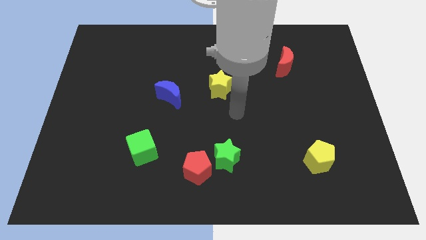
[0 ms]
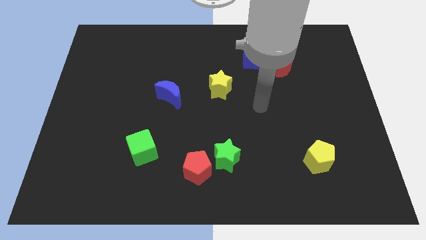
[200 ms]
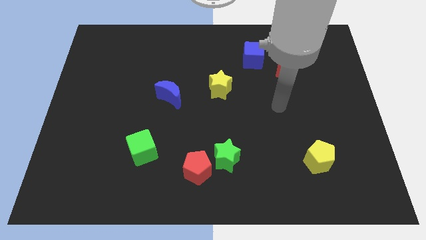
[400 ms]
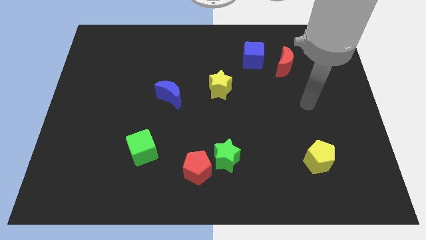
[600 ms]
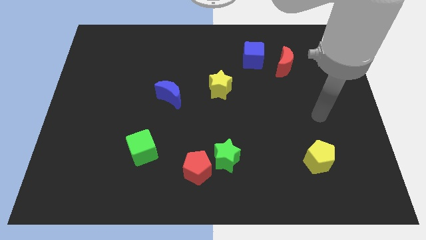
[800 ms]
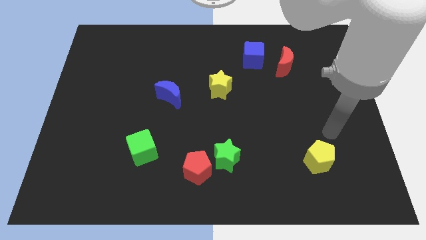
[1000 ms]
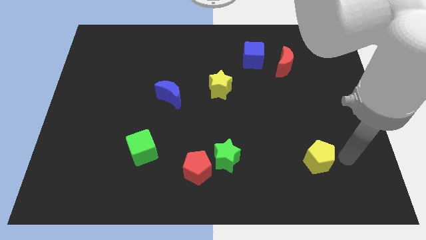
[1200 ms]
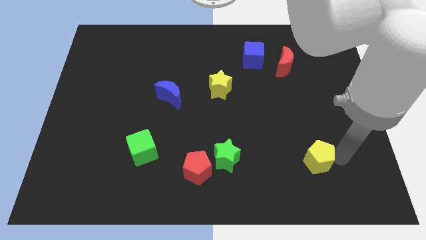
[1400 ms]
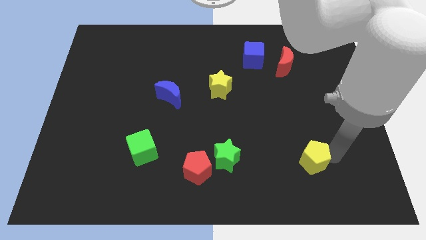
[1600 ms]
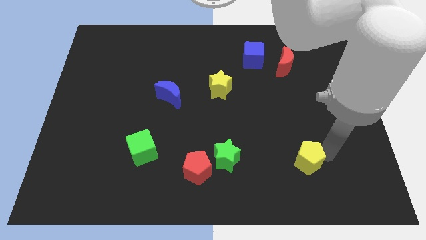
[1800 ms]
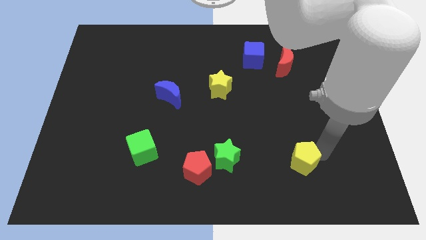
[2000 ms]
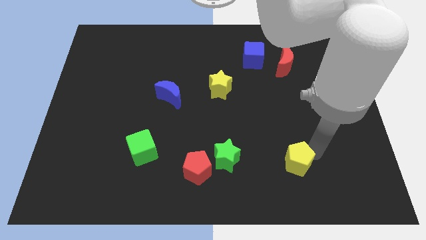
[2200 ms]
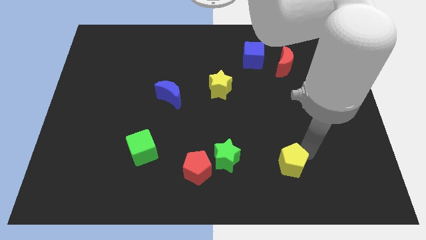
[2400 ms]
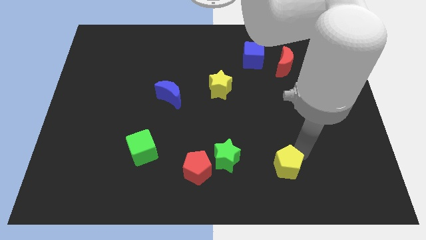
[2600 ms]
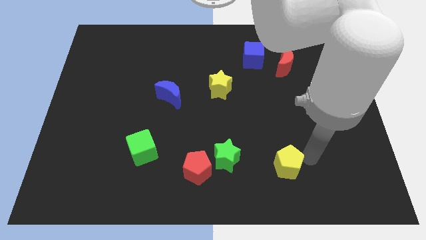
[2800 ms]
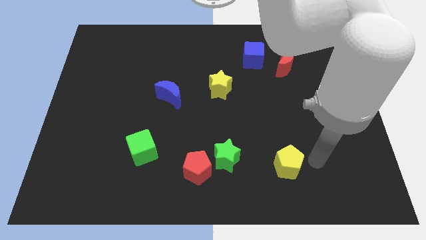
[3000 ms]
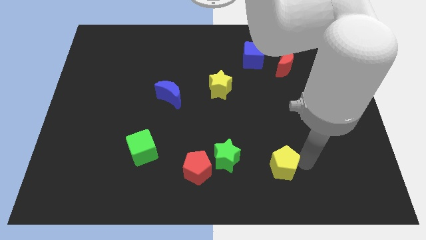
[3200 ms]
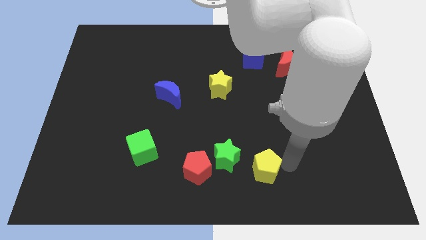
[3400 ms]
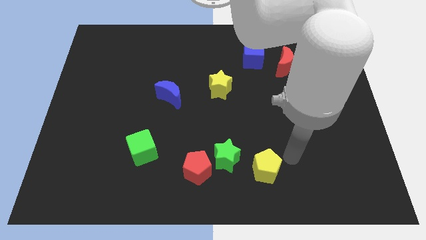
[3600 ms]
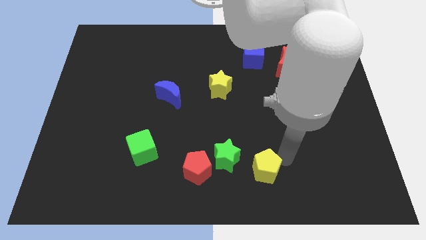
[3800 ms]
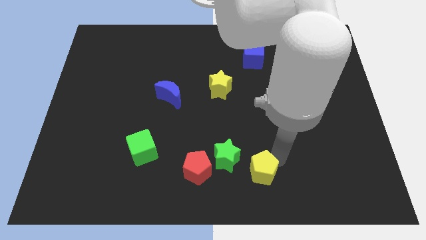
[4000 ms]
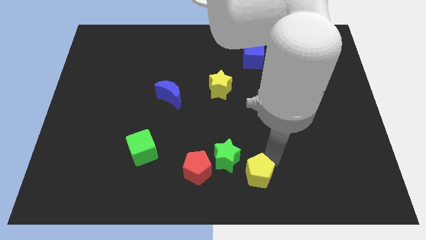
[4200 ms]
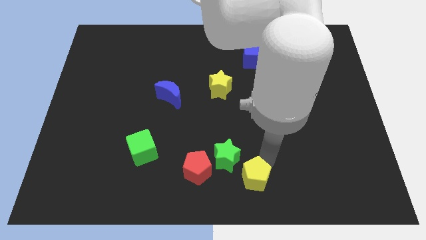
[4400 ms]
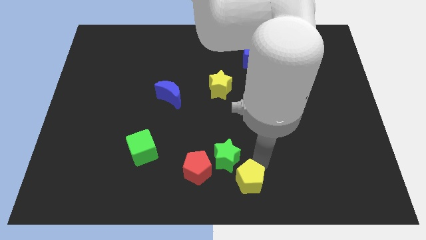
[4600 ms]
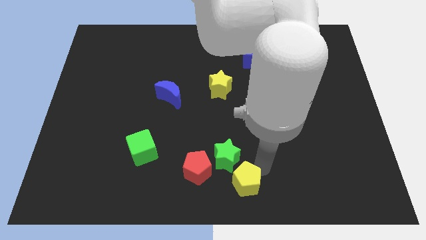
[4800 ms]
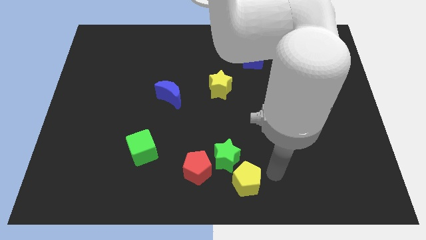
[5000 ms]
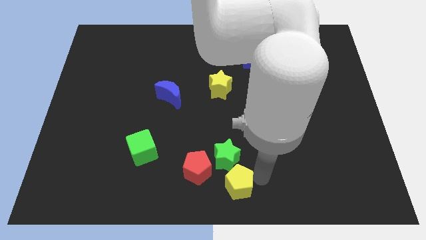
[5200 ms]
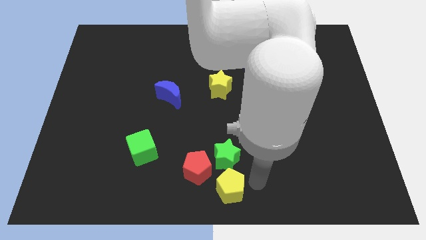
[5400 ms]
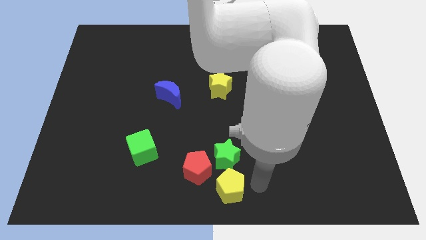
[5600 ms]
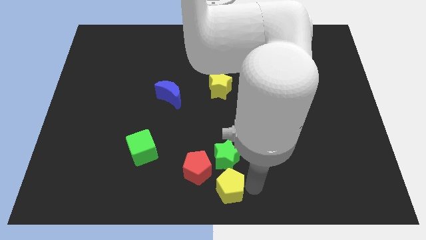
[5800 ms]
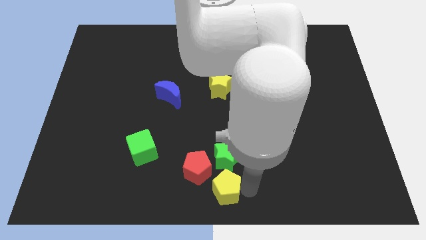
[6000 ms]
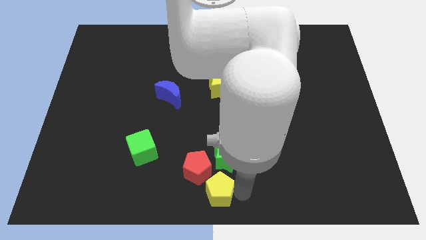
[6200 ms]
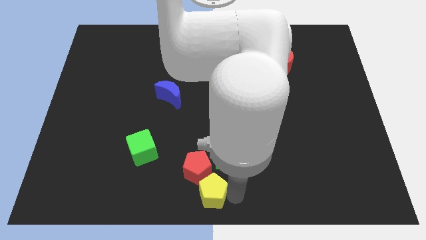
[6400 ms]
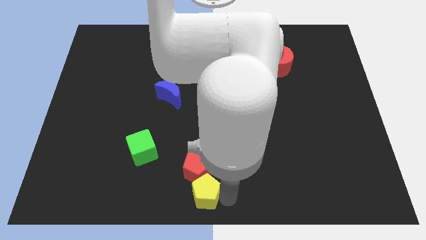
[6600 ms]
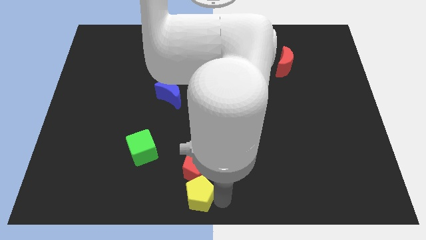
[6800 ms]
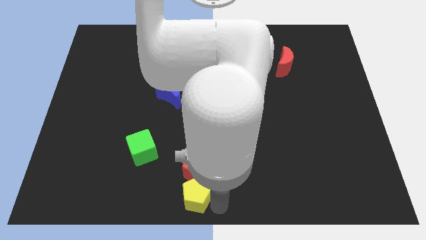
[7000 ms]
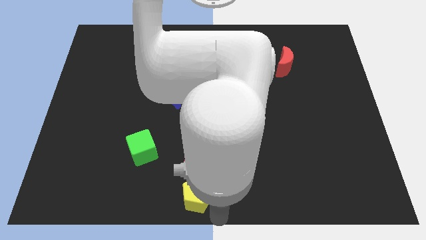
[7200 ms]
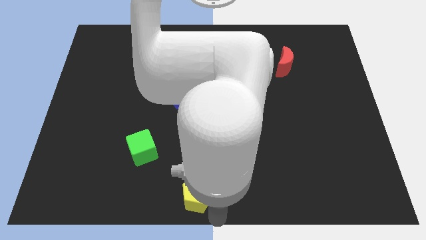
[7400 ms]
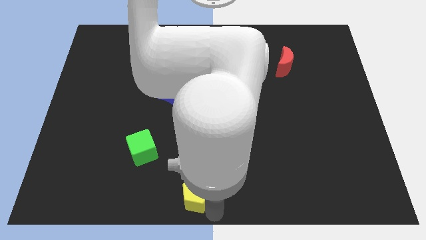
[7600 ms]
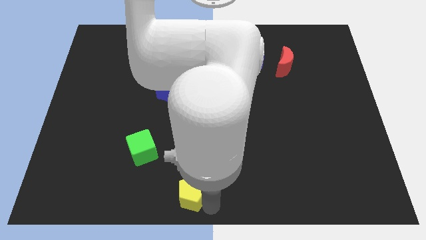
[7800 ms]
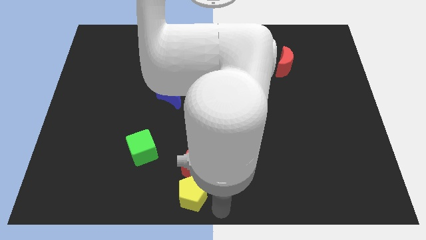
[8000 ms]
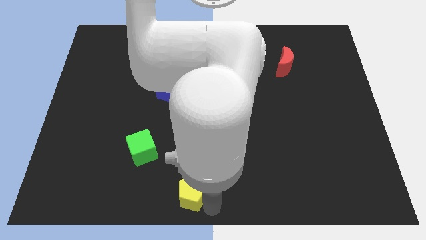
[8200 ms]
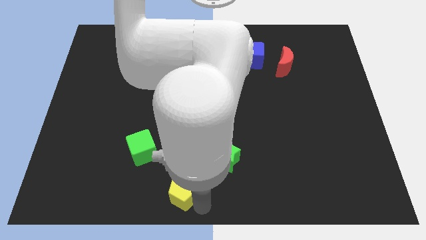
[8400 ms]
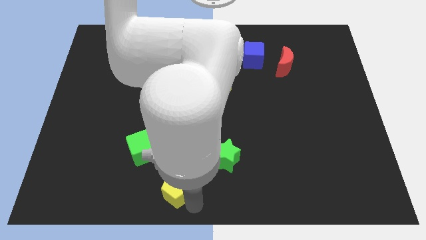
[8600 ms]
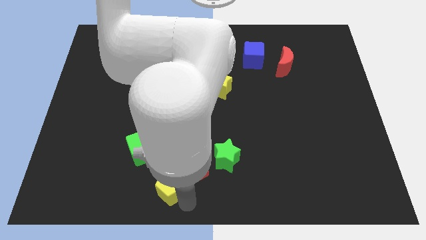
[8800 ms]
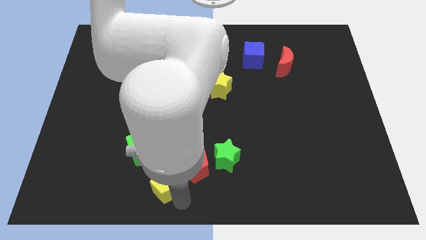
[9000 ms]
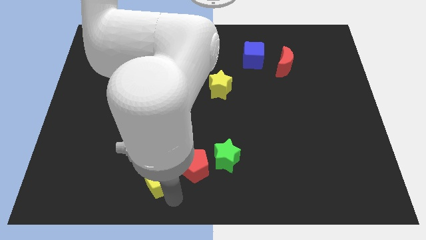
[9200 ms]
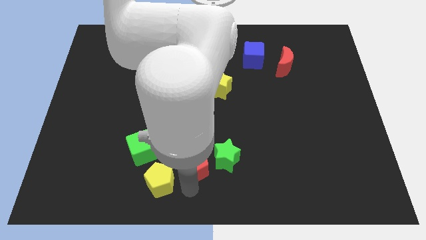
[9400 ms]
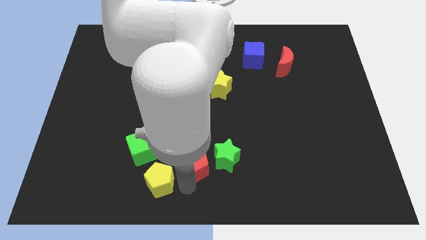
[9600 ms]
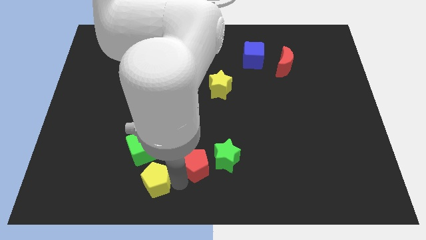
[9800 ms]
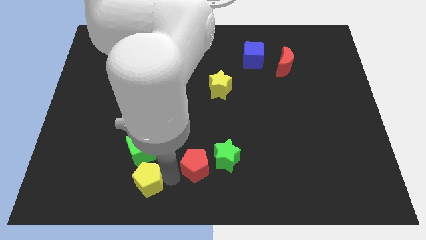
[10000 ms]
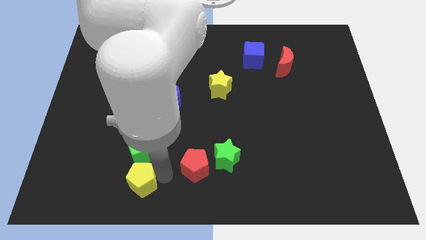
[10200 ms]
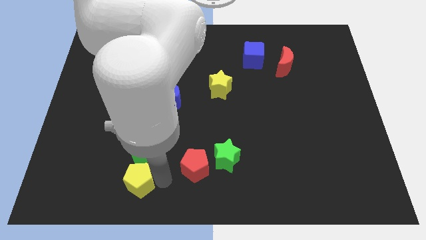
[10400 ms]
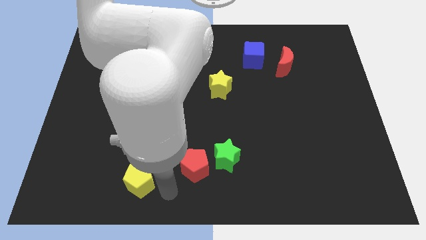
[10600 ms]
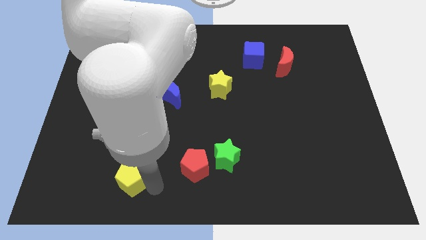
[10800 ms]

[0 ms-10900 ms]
move the yellow pentagon diagonally down and to the left of the green cube

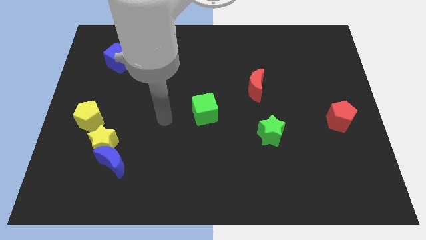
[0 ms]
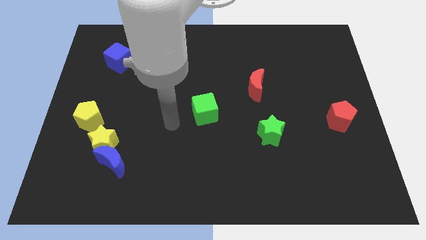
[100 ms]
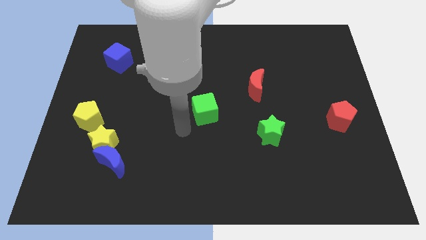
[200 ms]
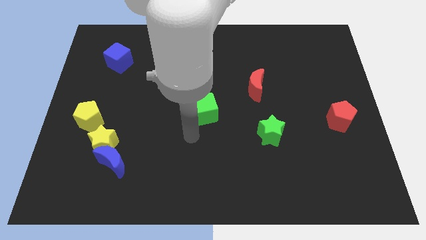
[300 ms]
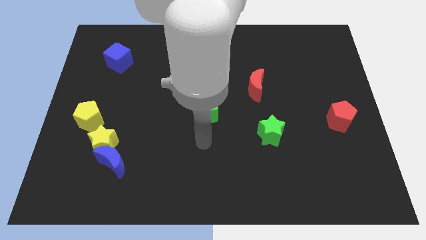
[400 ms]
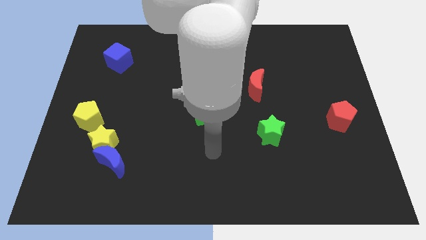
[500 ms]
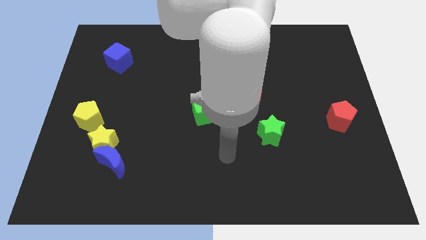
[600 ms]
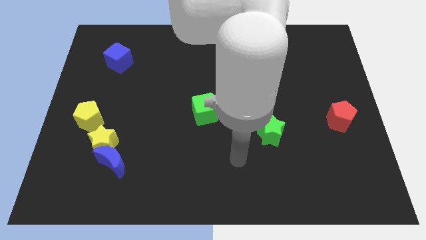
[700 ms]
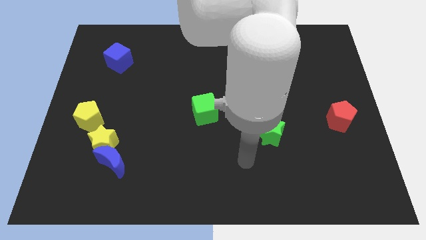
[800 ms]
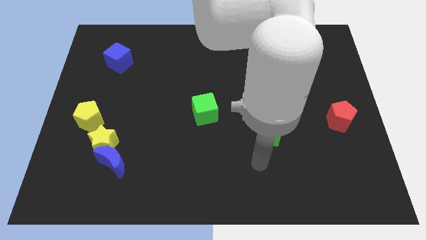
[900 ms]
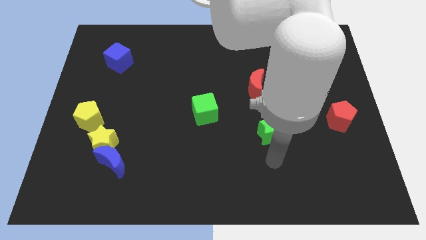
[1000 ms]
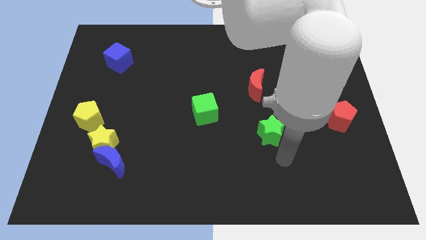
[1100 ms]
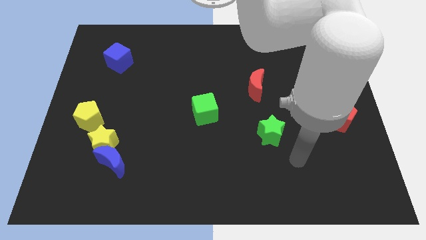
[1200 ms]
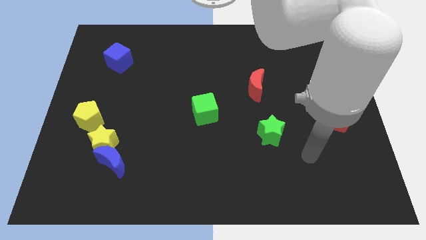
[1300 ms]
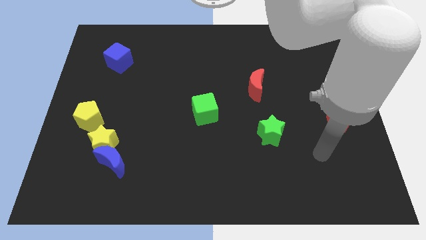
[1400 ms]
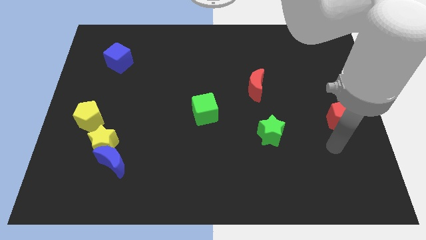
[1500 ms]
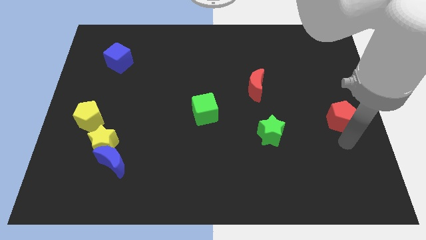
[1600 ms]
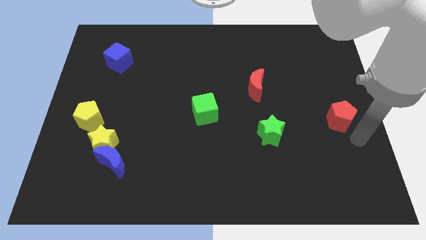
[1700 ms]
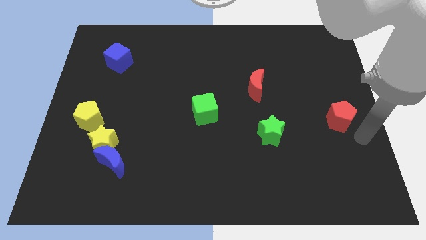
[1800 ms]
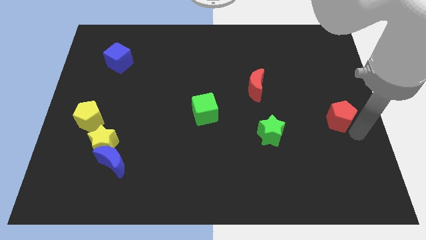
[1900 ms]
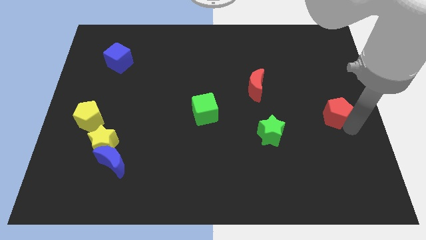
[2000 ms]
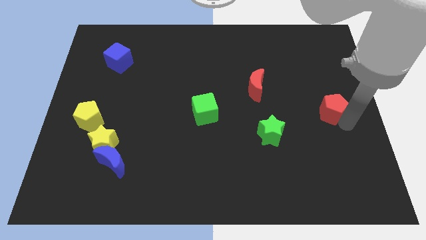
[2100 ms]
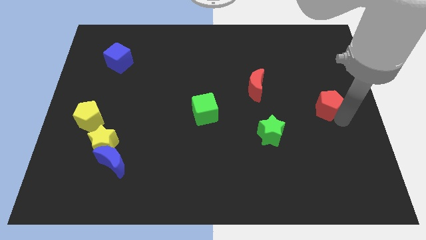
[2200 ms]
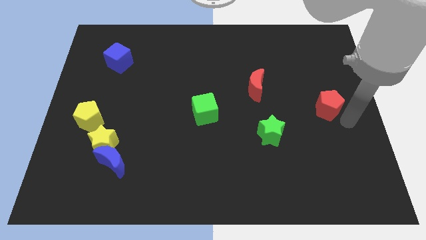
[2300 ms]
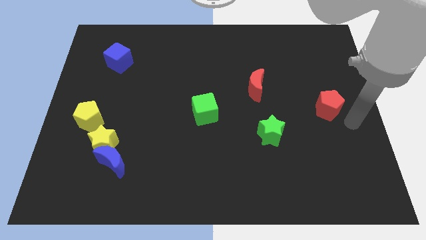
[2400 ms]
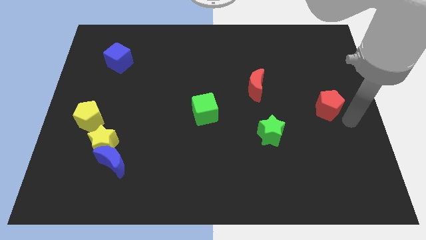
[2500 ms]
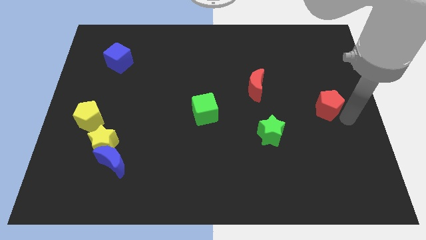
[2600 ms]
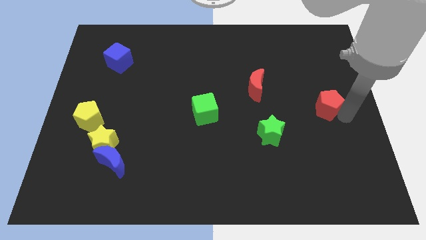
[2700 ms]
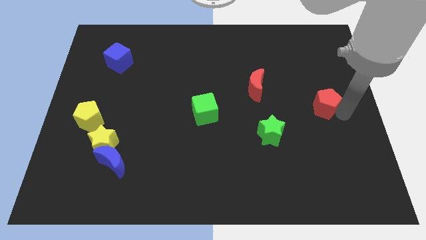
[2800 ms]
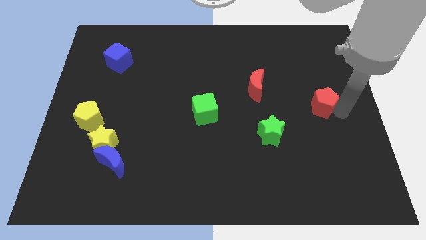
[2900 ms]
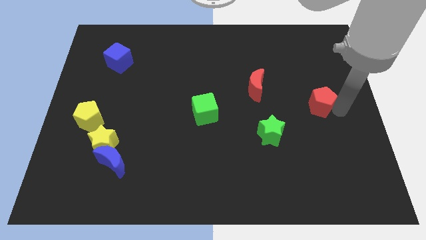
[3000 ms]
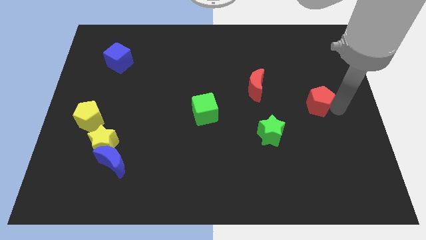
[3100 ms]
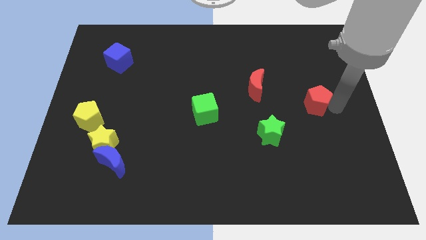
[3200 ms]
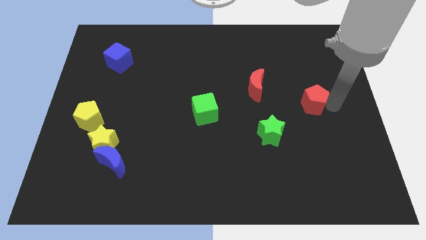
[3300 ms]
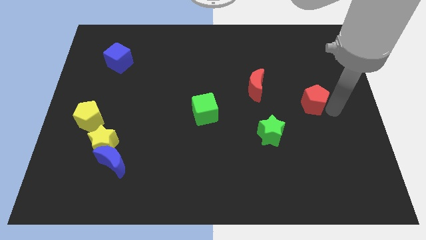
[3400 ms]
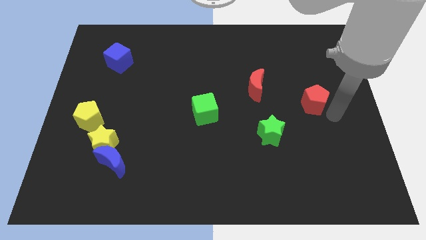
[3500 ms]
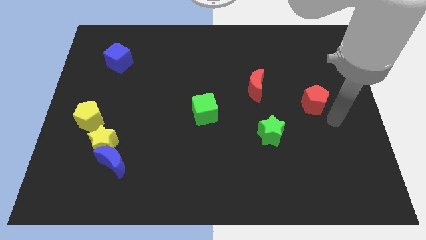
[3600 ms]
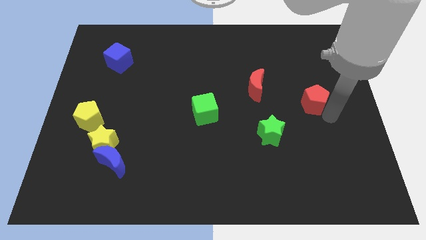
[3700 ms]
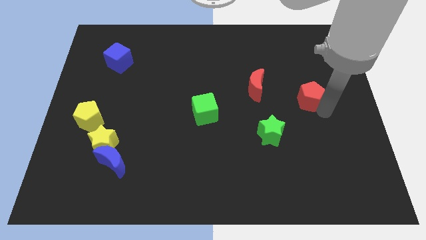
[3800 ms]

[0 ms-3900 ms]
move the red pentagon to the right side of the red moon
